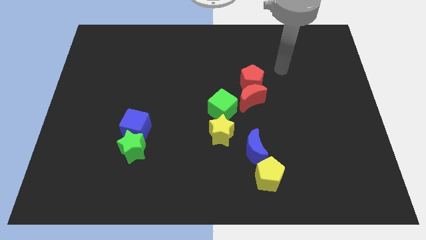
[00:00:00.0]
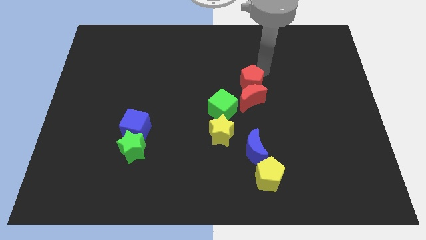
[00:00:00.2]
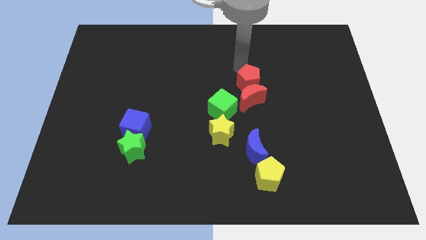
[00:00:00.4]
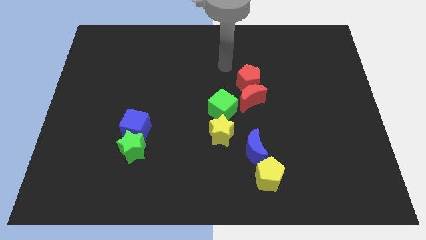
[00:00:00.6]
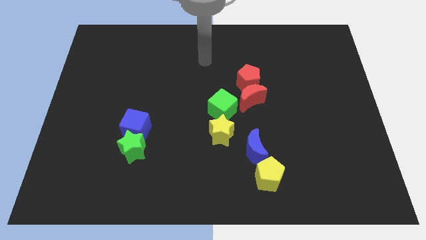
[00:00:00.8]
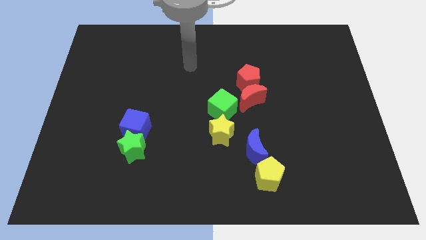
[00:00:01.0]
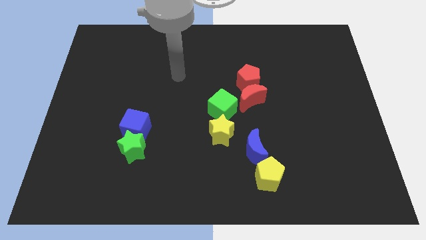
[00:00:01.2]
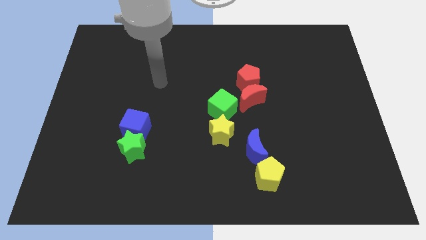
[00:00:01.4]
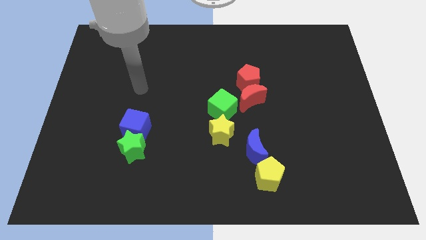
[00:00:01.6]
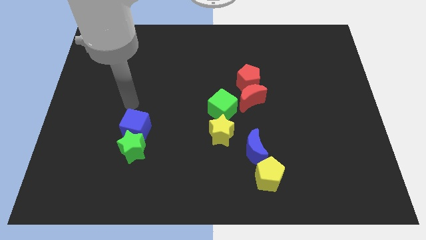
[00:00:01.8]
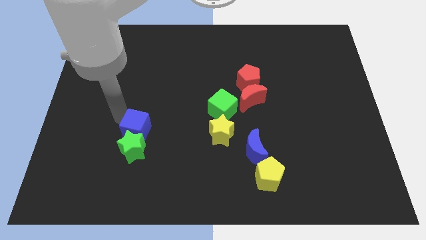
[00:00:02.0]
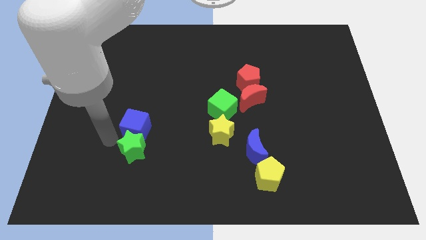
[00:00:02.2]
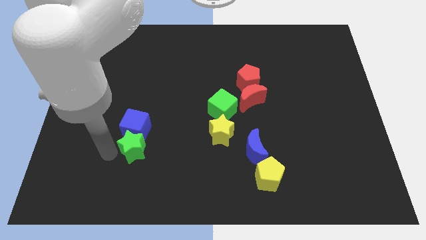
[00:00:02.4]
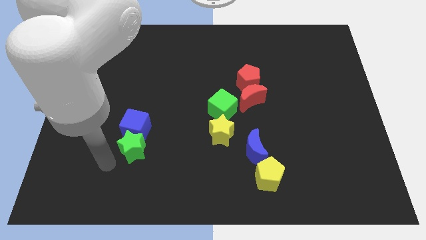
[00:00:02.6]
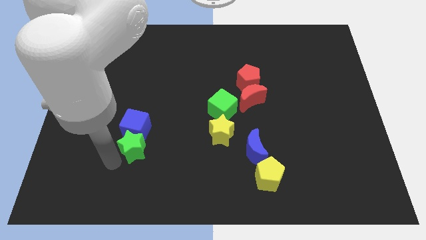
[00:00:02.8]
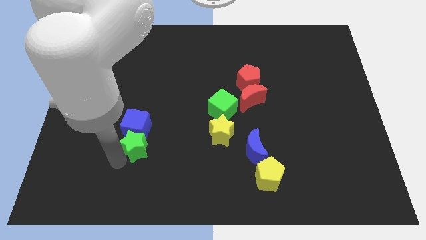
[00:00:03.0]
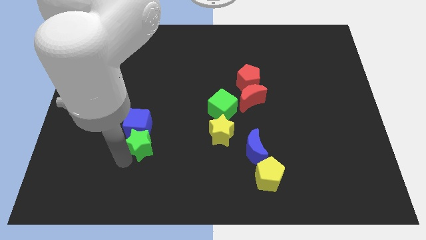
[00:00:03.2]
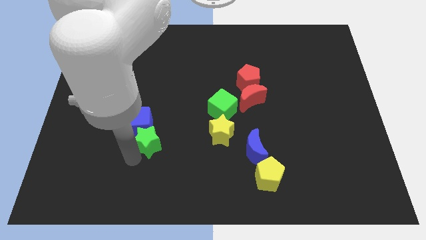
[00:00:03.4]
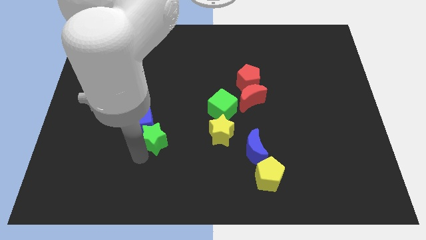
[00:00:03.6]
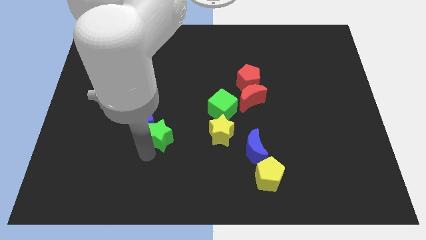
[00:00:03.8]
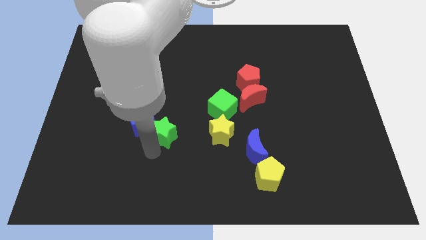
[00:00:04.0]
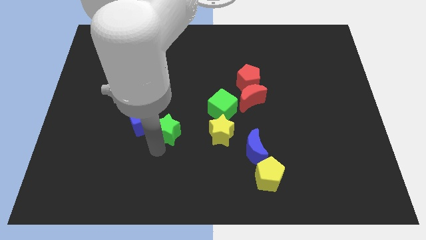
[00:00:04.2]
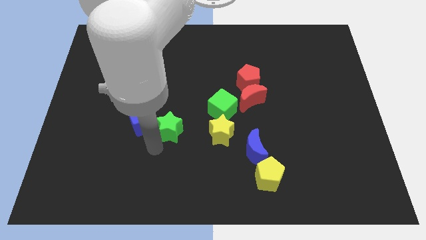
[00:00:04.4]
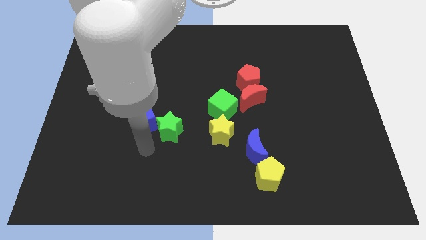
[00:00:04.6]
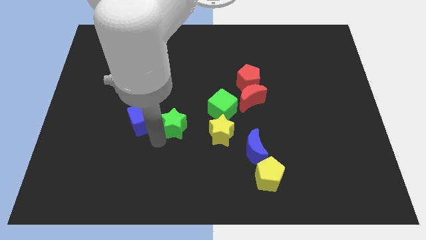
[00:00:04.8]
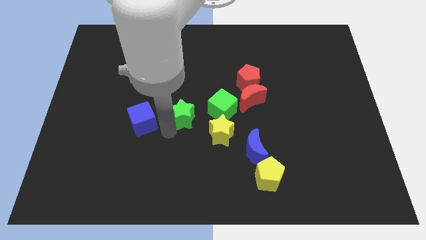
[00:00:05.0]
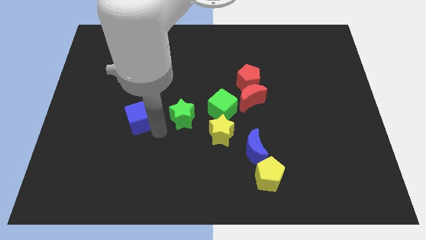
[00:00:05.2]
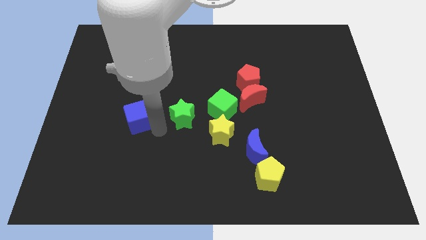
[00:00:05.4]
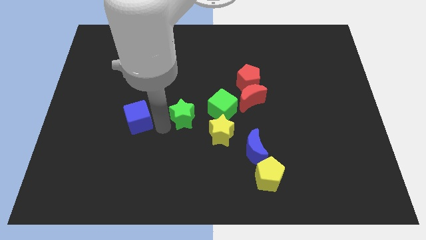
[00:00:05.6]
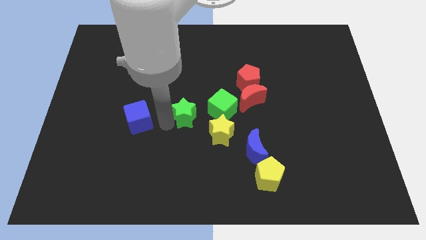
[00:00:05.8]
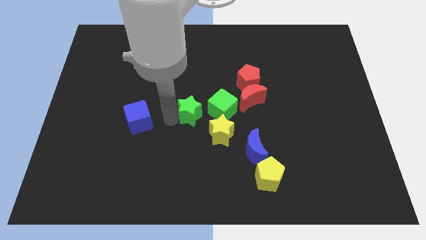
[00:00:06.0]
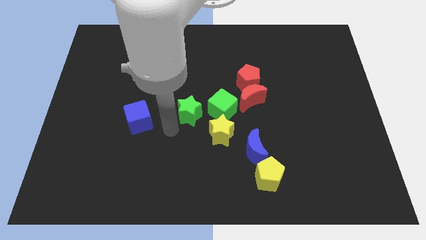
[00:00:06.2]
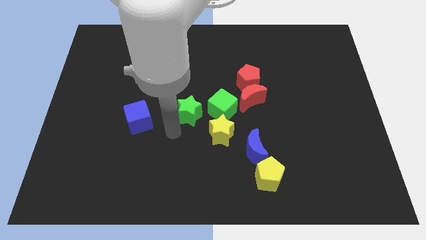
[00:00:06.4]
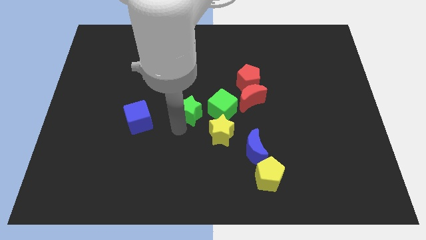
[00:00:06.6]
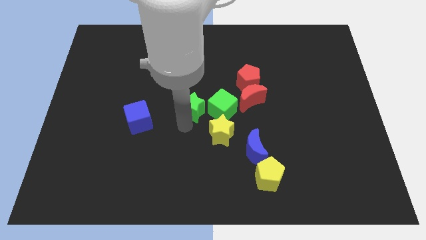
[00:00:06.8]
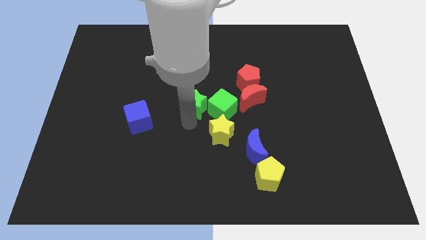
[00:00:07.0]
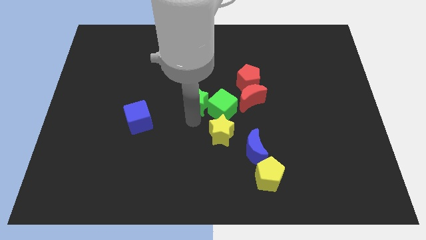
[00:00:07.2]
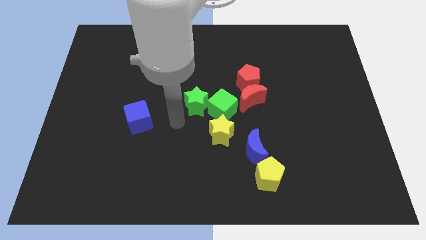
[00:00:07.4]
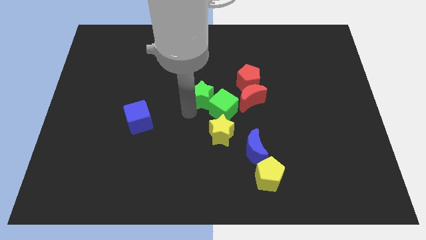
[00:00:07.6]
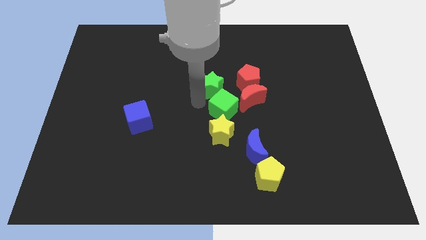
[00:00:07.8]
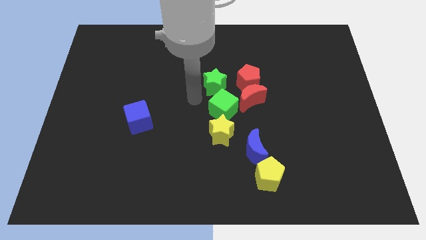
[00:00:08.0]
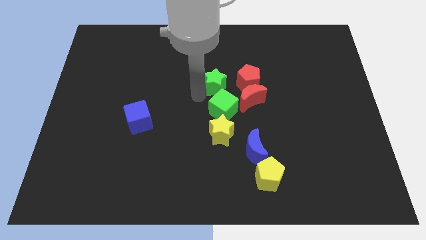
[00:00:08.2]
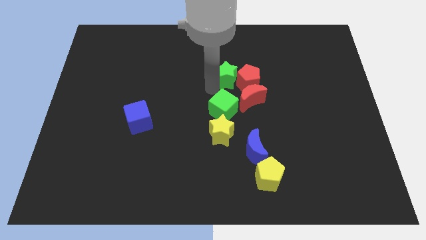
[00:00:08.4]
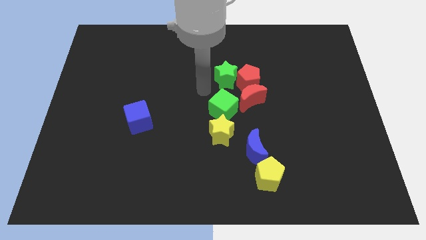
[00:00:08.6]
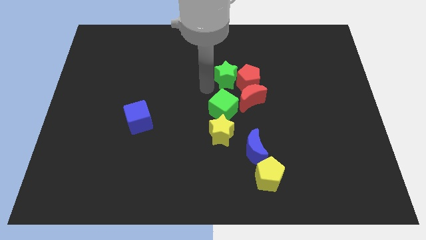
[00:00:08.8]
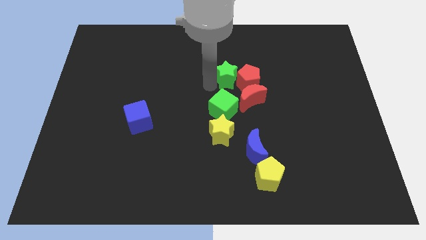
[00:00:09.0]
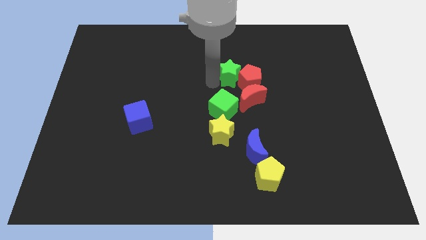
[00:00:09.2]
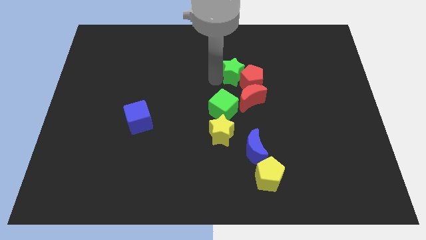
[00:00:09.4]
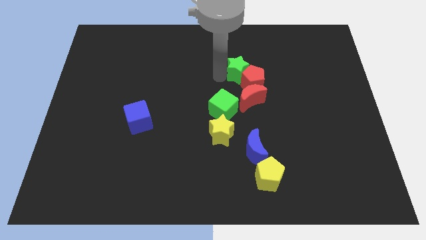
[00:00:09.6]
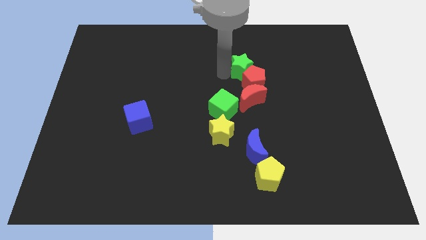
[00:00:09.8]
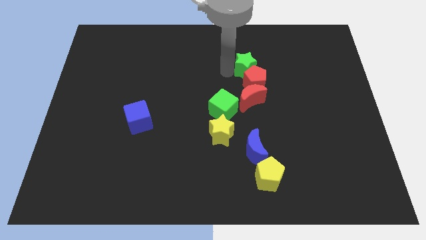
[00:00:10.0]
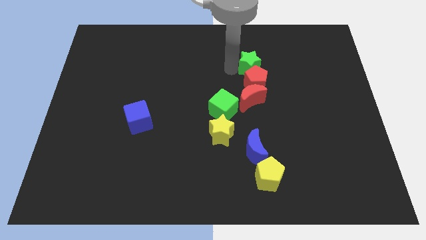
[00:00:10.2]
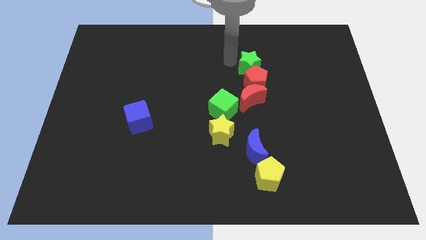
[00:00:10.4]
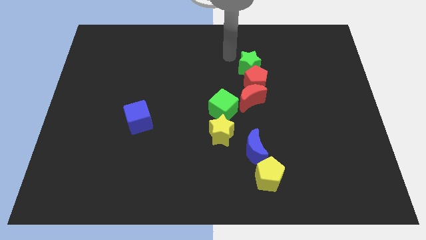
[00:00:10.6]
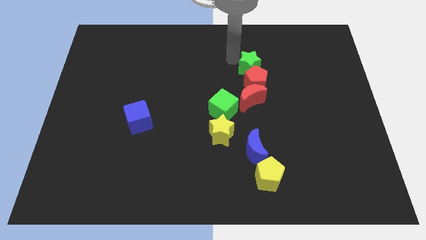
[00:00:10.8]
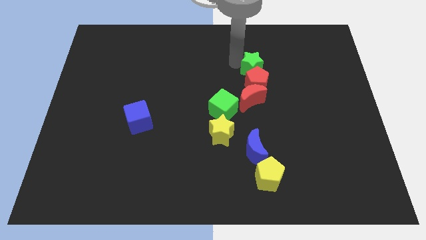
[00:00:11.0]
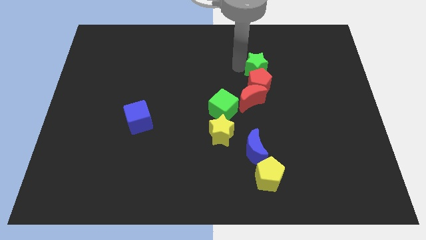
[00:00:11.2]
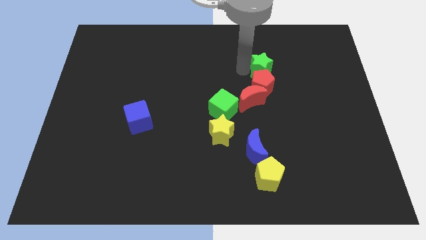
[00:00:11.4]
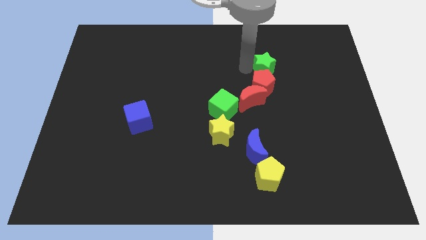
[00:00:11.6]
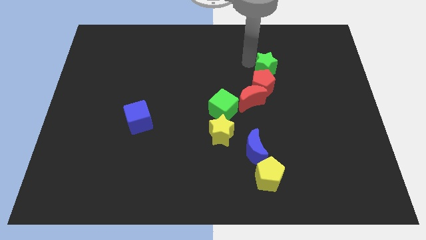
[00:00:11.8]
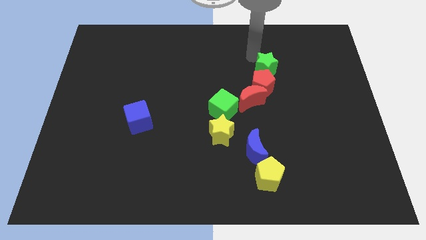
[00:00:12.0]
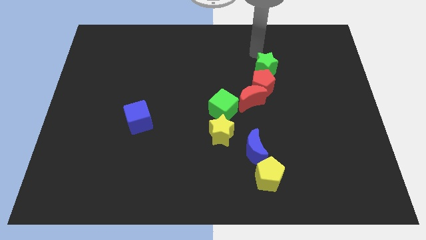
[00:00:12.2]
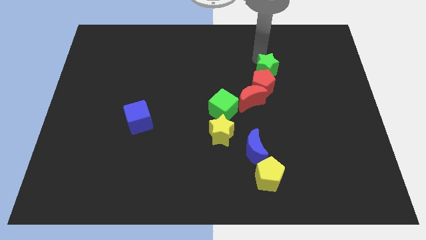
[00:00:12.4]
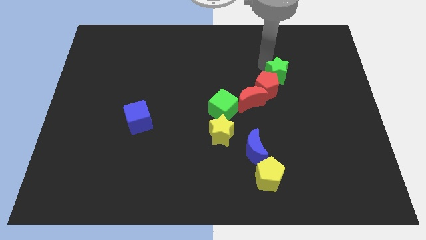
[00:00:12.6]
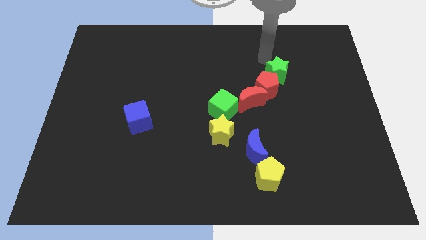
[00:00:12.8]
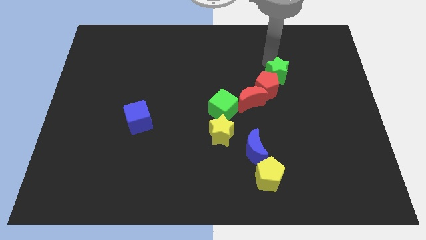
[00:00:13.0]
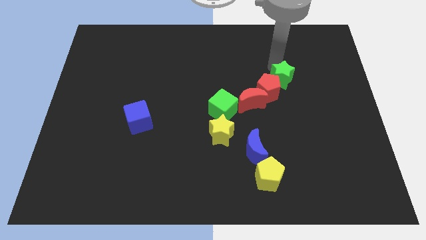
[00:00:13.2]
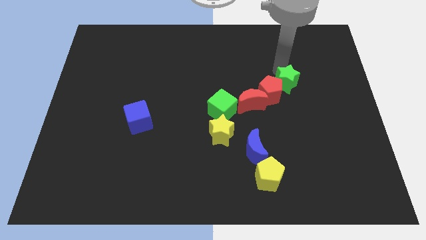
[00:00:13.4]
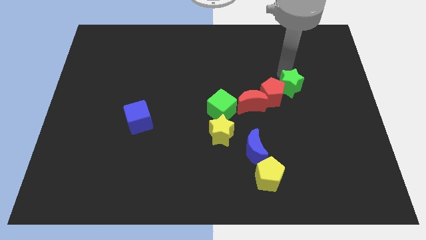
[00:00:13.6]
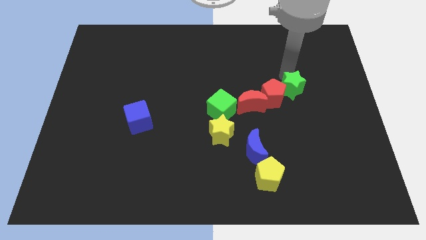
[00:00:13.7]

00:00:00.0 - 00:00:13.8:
slide the green star to the right of the red moon

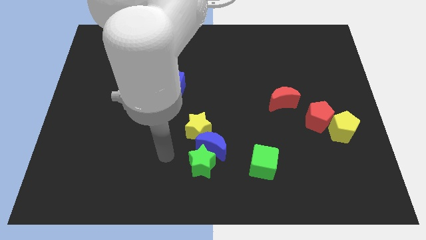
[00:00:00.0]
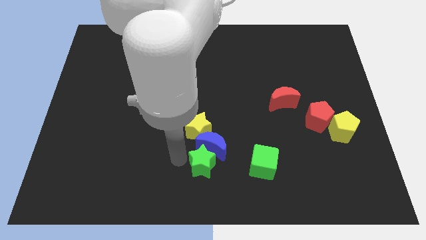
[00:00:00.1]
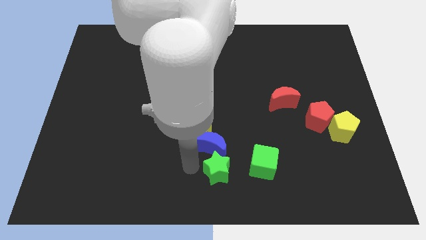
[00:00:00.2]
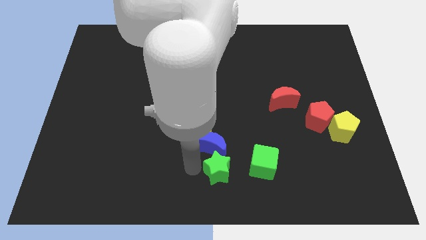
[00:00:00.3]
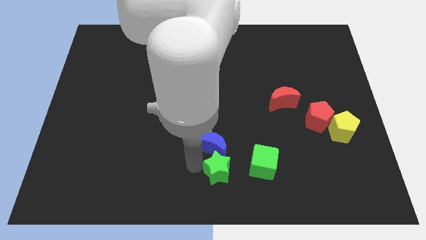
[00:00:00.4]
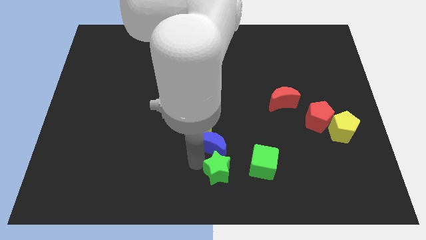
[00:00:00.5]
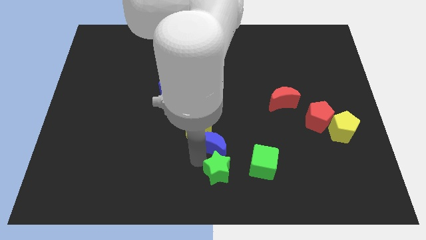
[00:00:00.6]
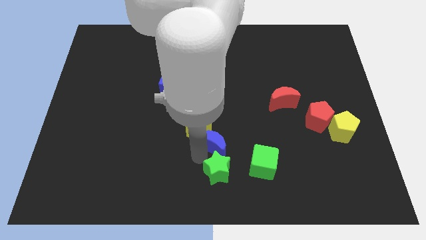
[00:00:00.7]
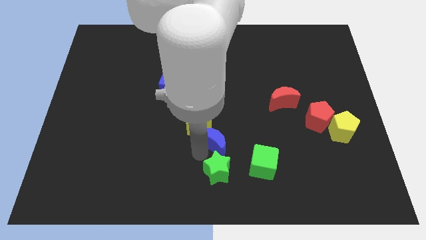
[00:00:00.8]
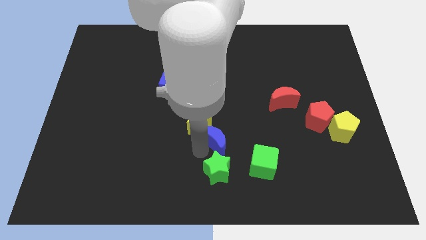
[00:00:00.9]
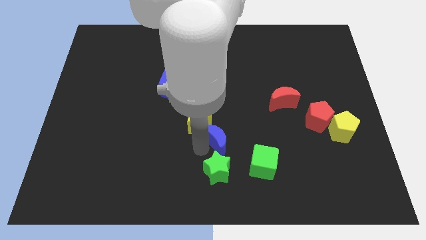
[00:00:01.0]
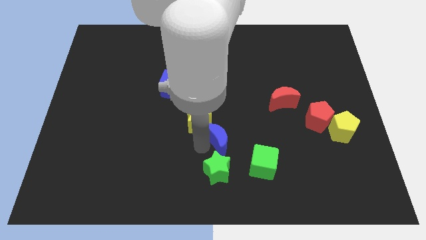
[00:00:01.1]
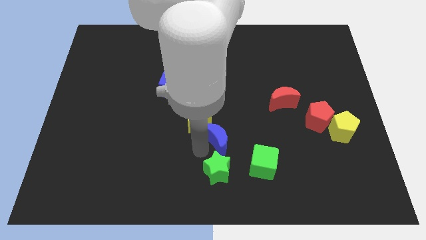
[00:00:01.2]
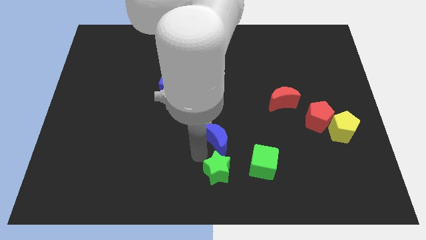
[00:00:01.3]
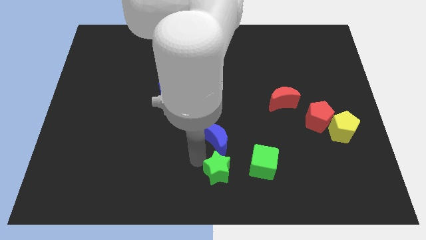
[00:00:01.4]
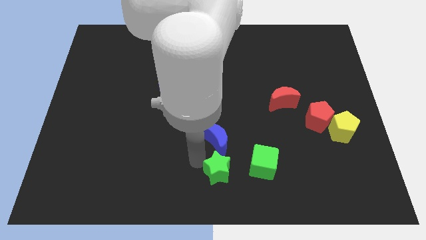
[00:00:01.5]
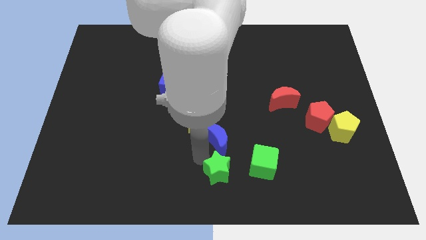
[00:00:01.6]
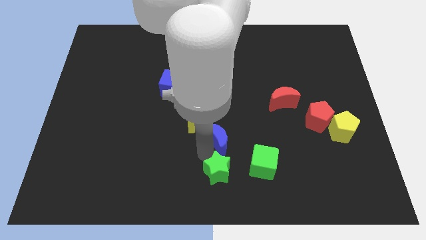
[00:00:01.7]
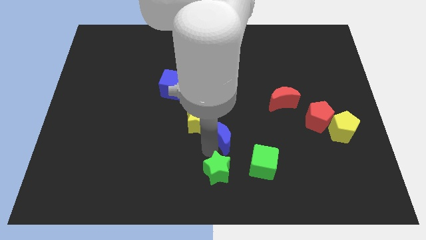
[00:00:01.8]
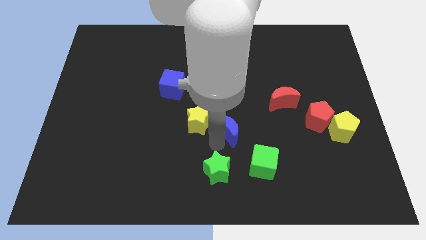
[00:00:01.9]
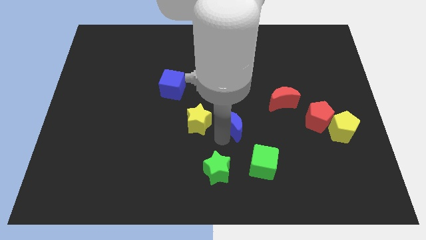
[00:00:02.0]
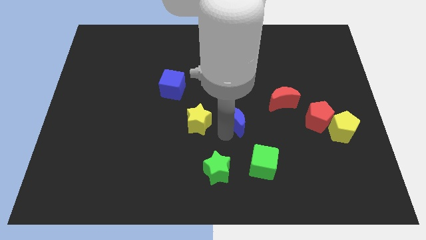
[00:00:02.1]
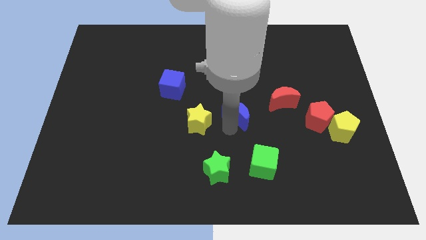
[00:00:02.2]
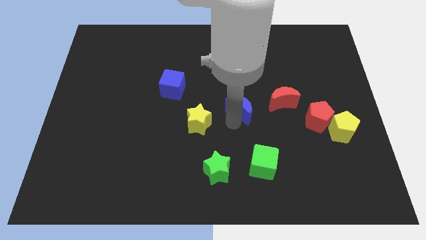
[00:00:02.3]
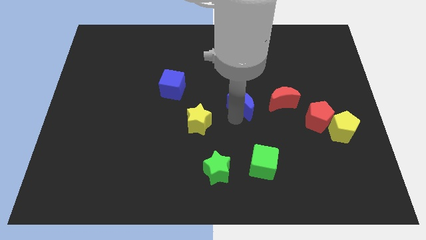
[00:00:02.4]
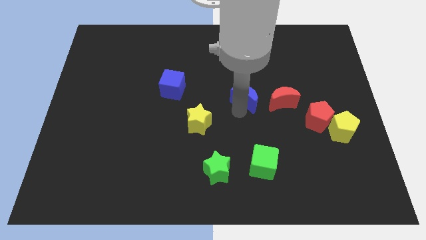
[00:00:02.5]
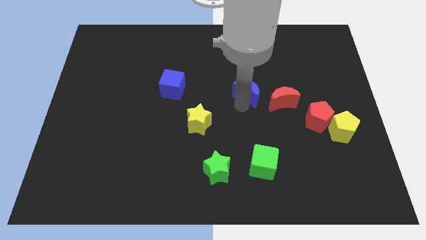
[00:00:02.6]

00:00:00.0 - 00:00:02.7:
move the blue moon to the top left of the red moon
